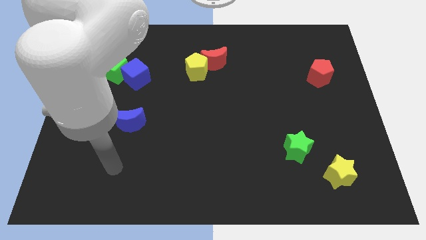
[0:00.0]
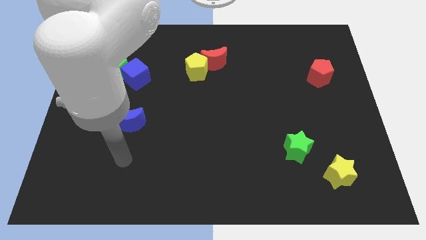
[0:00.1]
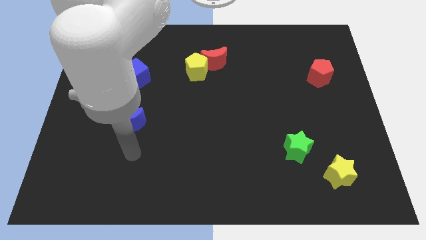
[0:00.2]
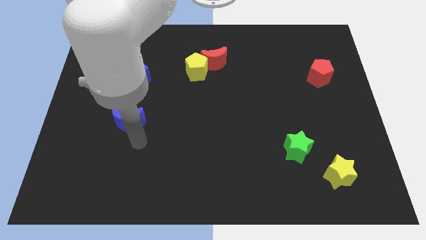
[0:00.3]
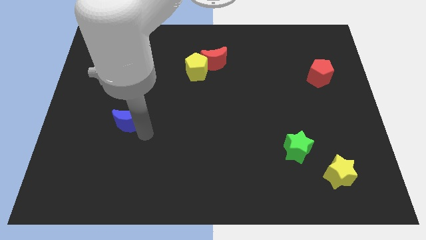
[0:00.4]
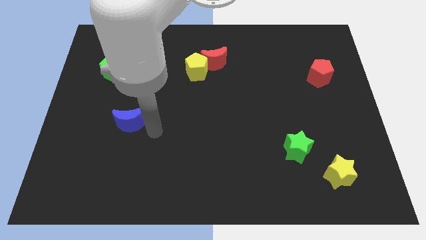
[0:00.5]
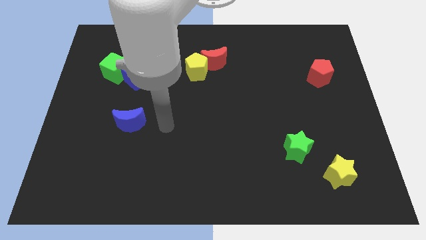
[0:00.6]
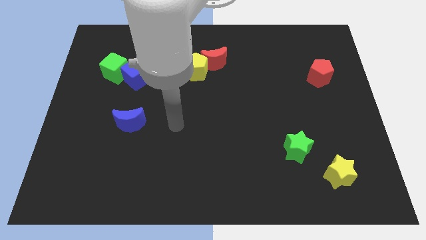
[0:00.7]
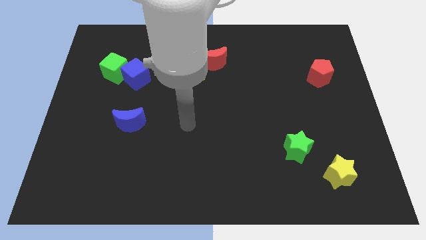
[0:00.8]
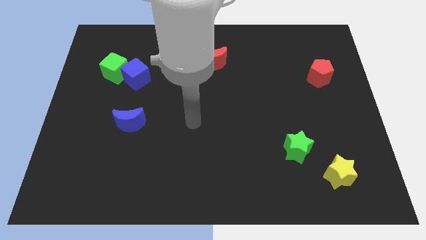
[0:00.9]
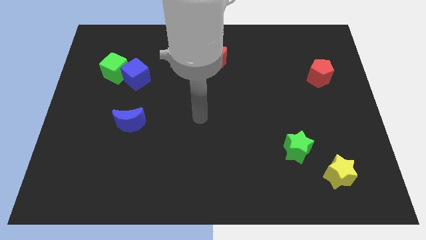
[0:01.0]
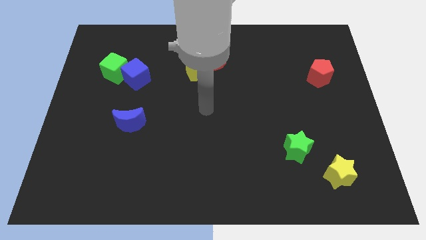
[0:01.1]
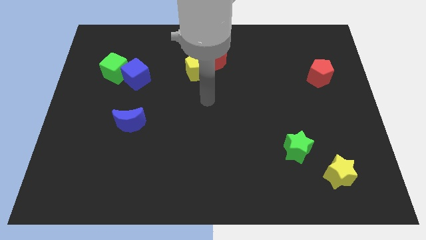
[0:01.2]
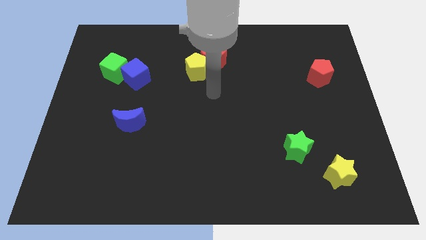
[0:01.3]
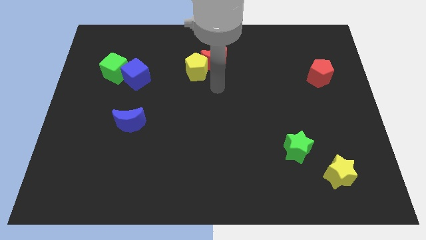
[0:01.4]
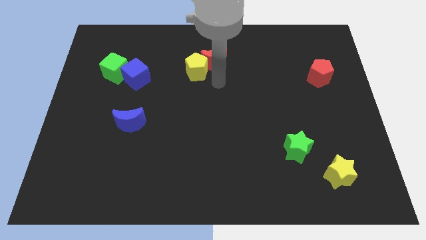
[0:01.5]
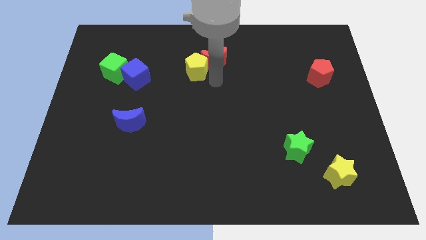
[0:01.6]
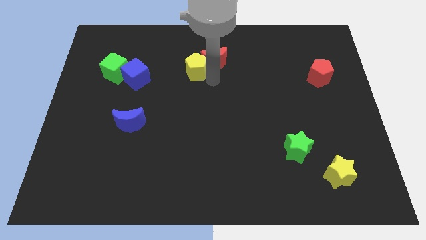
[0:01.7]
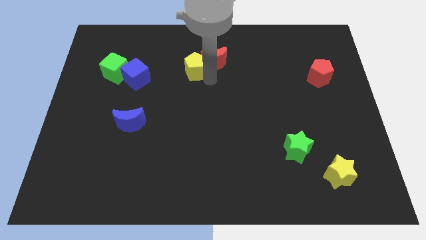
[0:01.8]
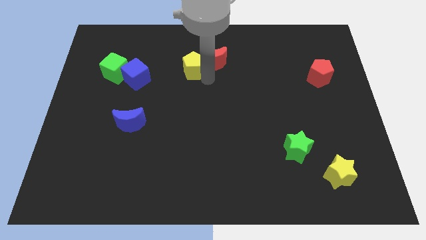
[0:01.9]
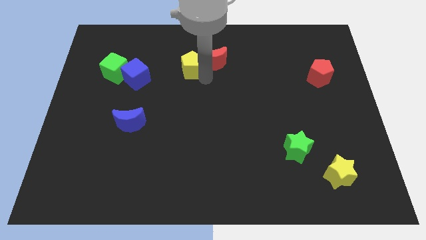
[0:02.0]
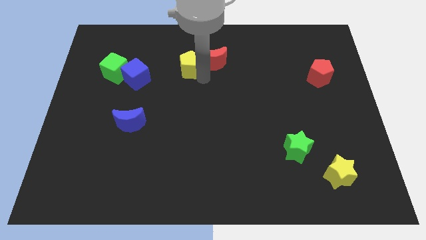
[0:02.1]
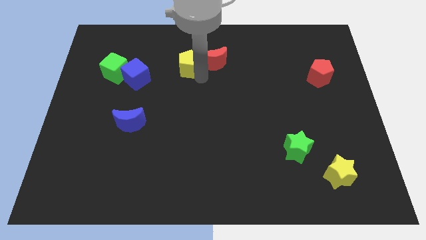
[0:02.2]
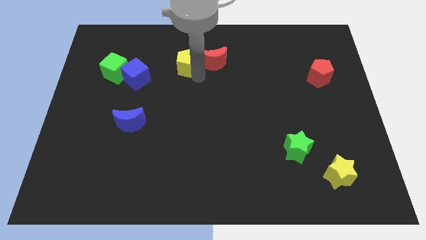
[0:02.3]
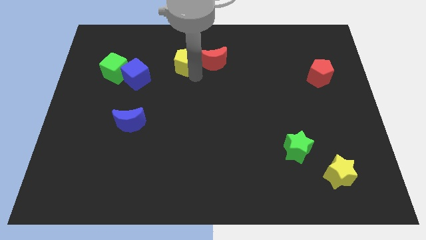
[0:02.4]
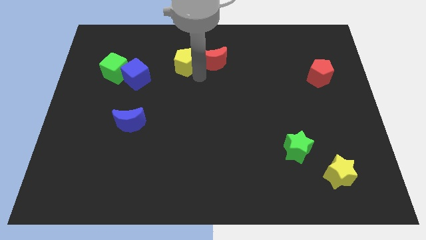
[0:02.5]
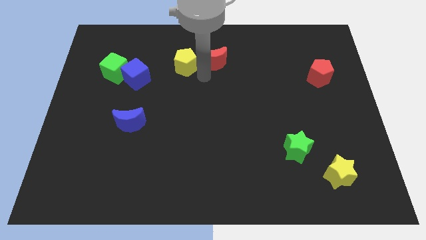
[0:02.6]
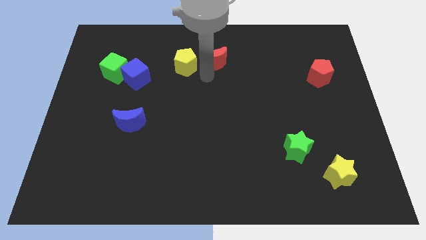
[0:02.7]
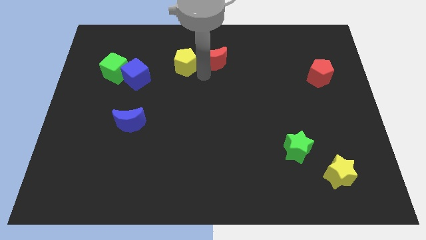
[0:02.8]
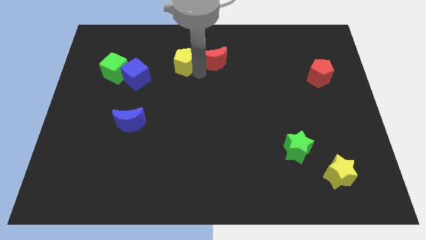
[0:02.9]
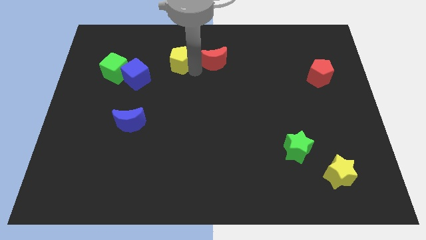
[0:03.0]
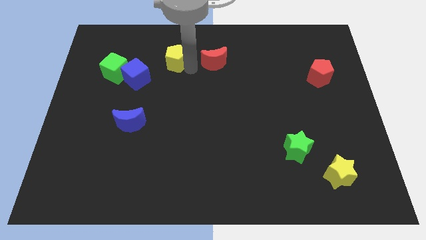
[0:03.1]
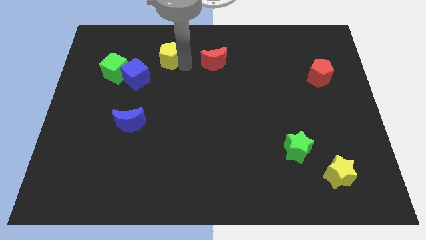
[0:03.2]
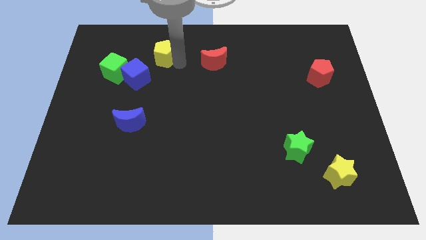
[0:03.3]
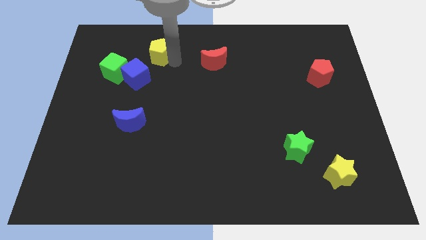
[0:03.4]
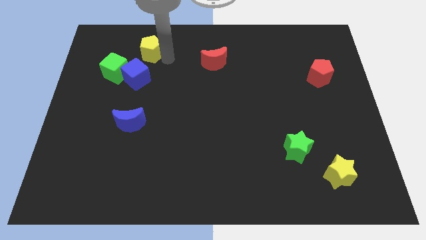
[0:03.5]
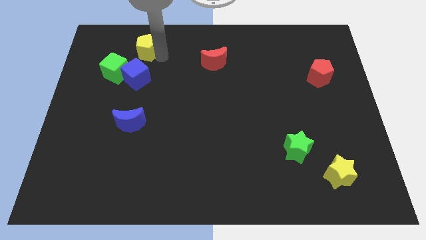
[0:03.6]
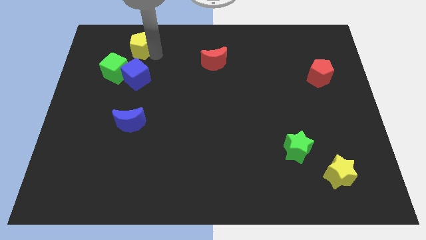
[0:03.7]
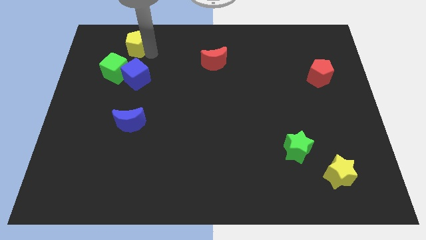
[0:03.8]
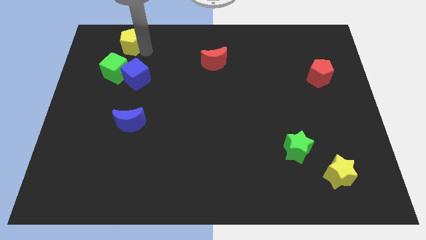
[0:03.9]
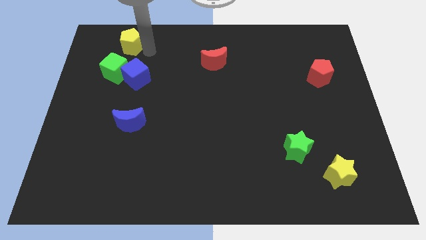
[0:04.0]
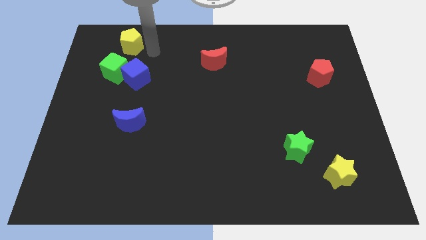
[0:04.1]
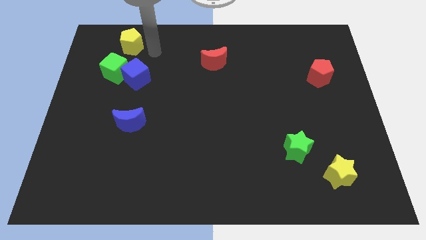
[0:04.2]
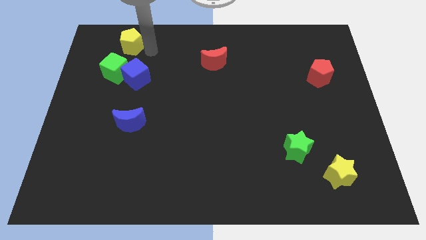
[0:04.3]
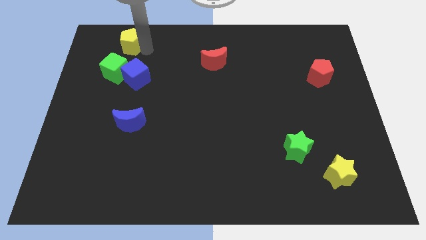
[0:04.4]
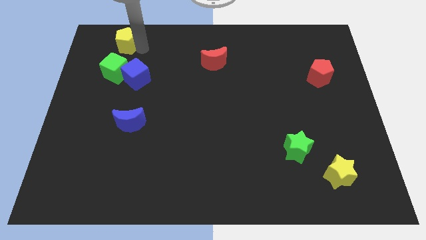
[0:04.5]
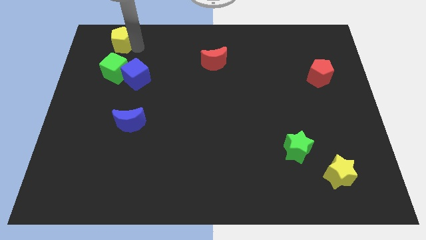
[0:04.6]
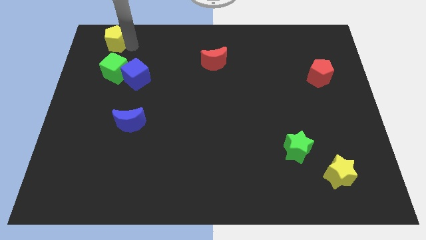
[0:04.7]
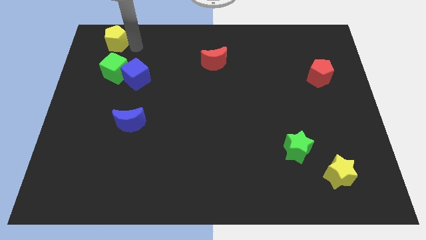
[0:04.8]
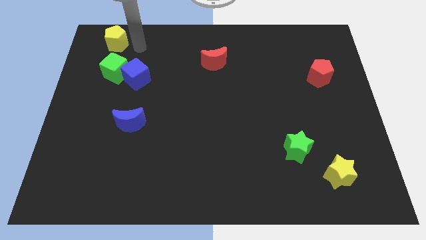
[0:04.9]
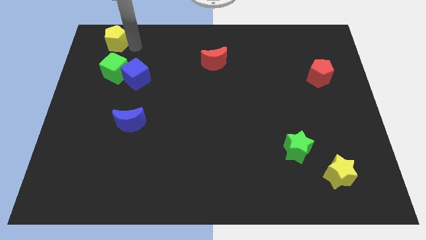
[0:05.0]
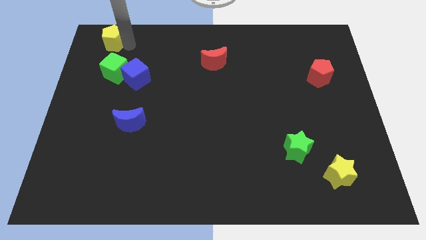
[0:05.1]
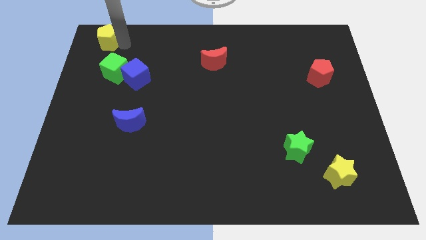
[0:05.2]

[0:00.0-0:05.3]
slide the yellow pentagon to the top left corner

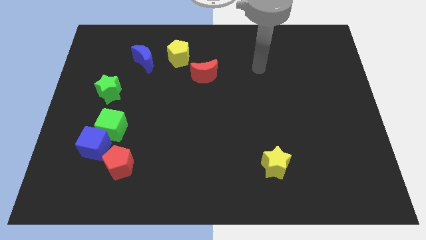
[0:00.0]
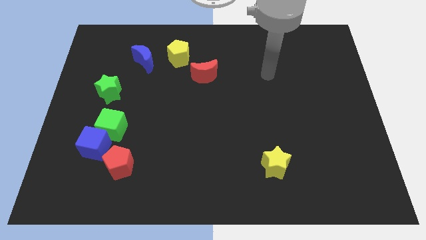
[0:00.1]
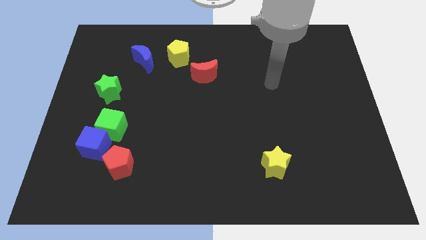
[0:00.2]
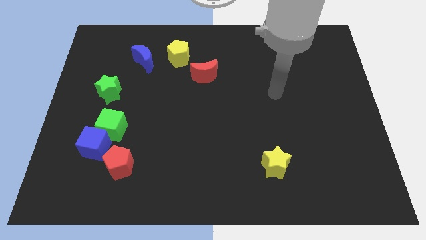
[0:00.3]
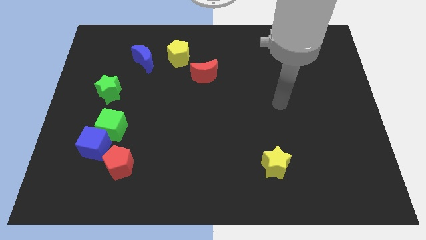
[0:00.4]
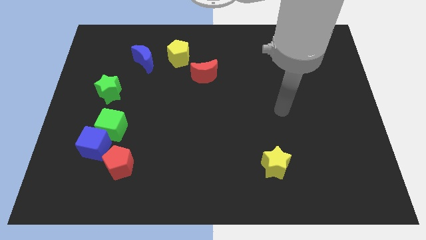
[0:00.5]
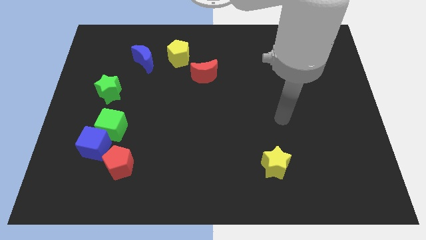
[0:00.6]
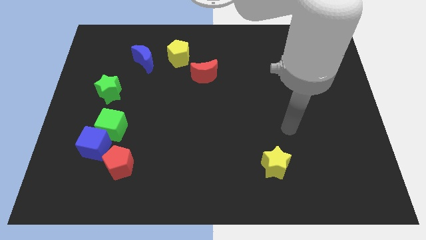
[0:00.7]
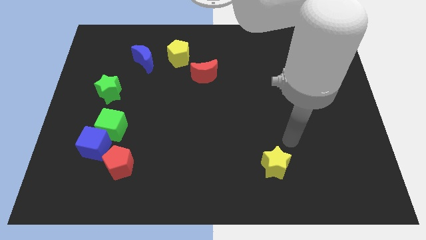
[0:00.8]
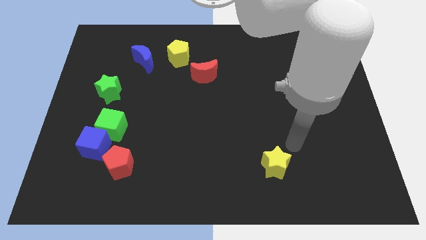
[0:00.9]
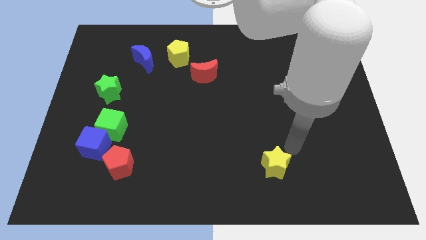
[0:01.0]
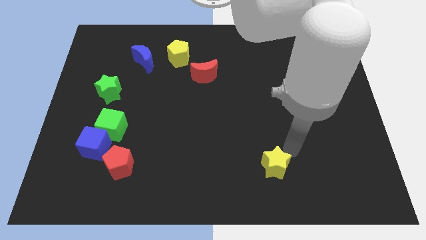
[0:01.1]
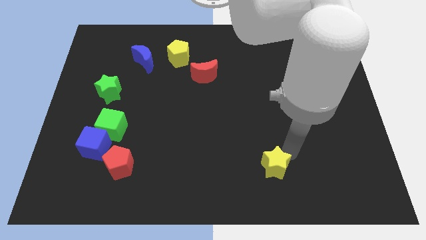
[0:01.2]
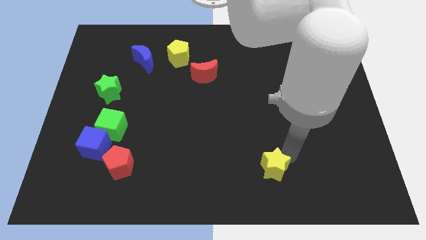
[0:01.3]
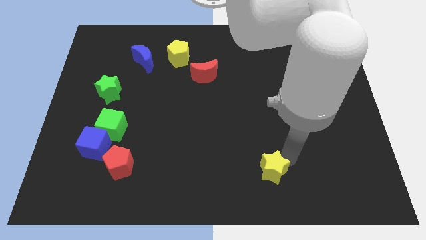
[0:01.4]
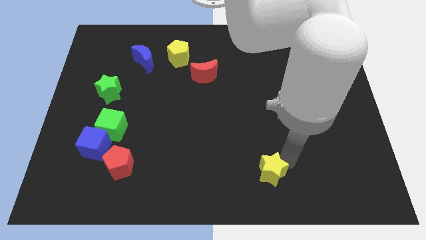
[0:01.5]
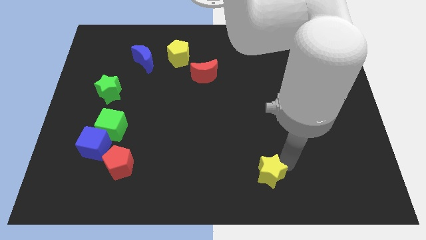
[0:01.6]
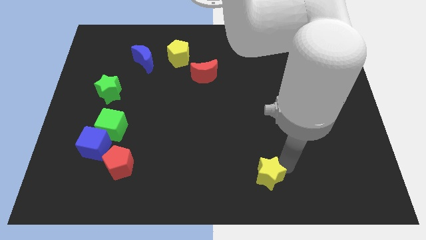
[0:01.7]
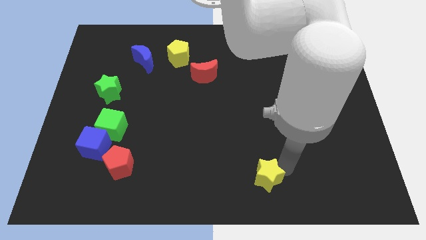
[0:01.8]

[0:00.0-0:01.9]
move the yellow star to the bottom side
